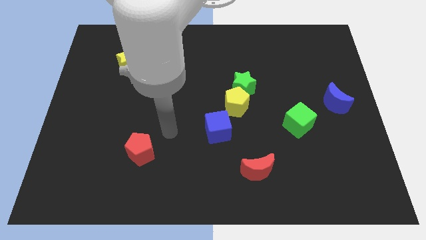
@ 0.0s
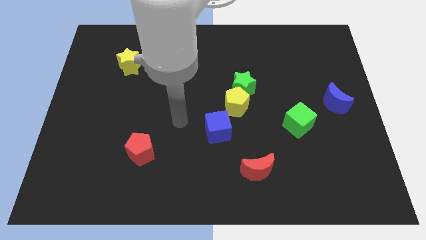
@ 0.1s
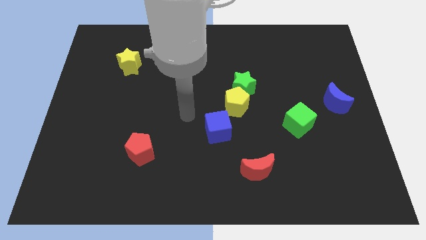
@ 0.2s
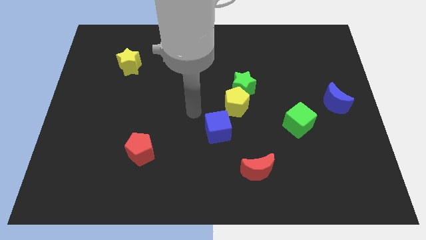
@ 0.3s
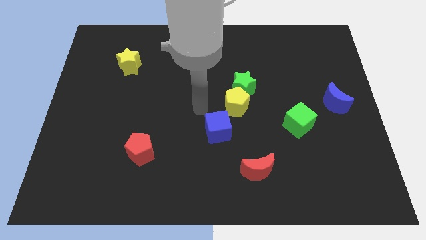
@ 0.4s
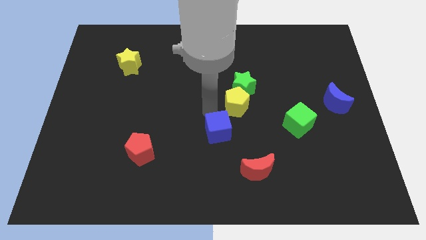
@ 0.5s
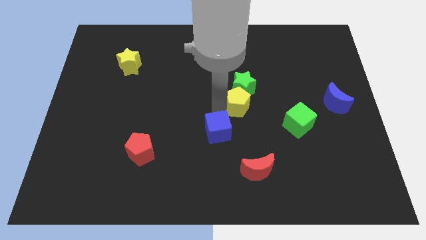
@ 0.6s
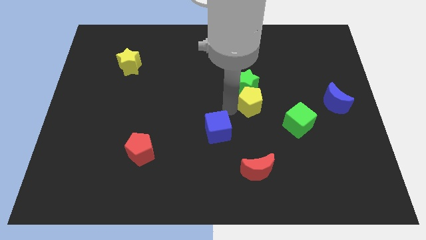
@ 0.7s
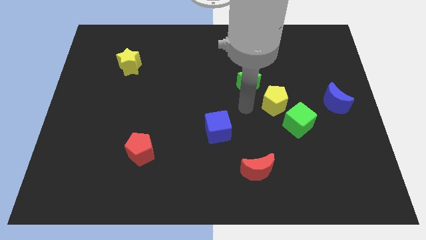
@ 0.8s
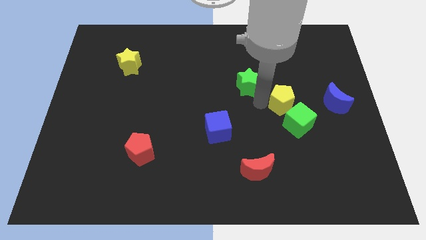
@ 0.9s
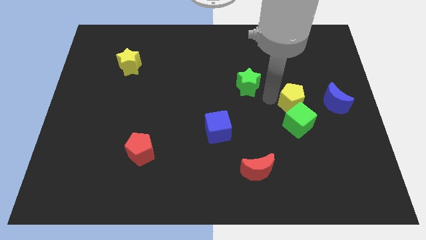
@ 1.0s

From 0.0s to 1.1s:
move the green star away from the yellow pentagon

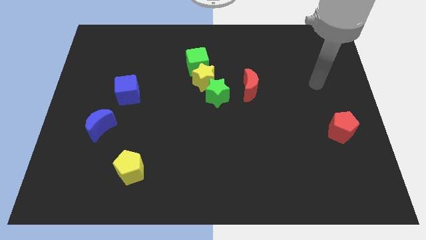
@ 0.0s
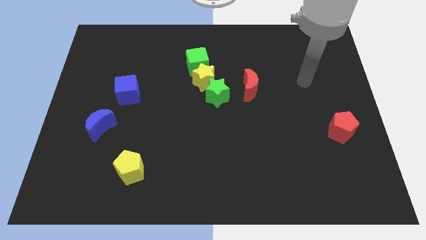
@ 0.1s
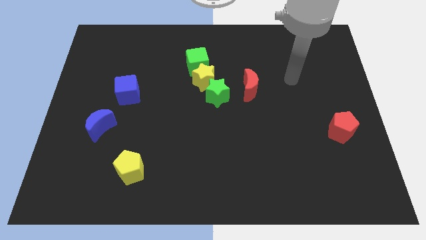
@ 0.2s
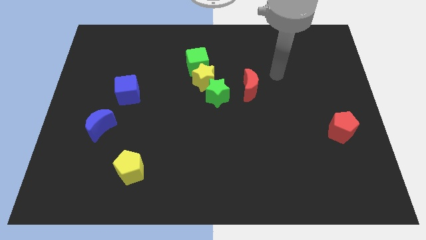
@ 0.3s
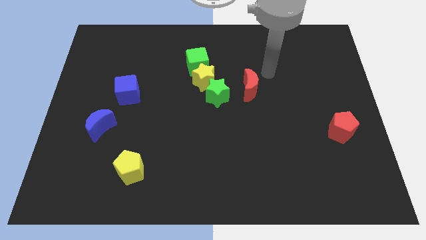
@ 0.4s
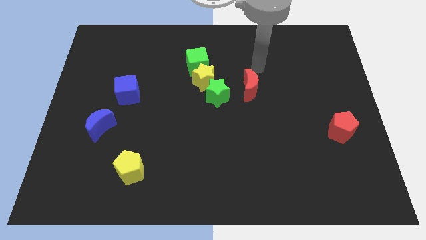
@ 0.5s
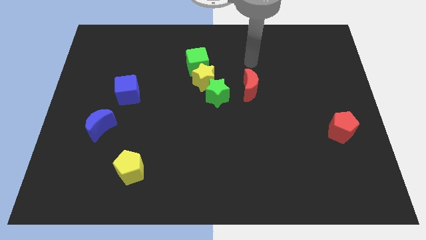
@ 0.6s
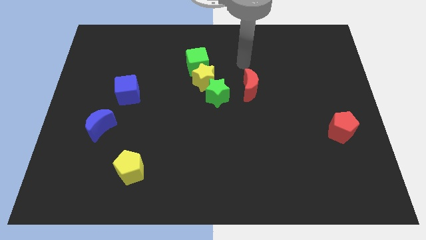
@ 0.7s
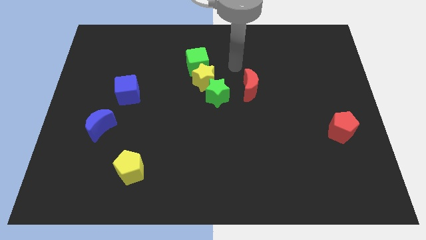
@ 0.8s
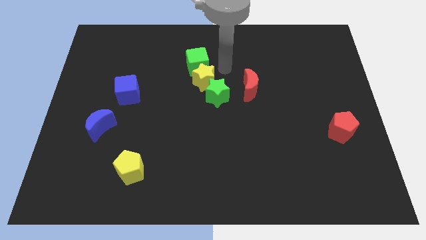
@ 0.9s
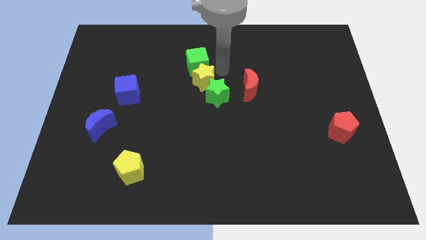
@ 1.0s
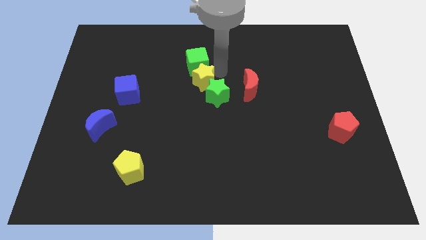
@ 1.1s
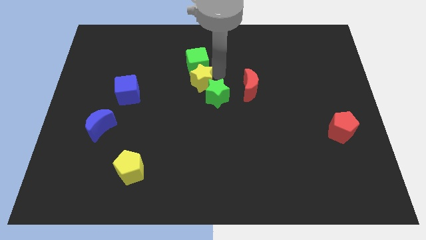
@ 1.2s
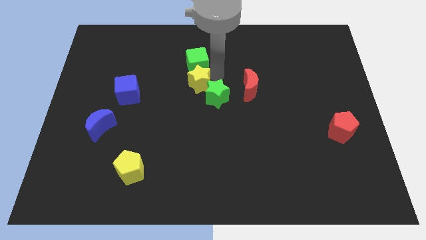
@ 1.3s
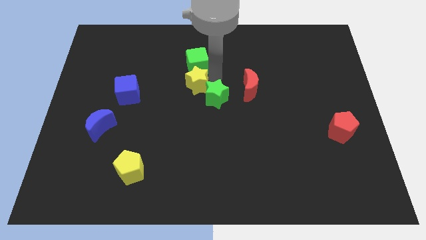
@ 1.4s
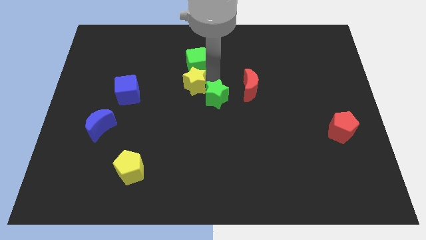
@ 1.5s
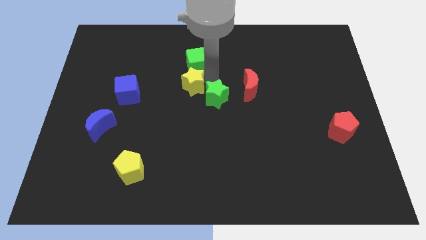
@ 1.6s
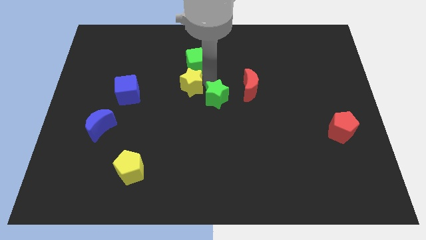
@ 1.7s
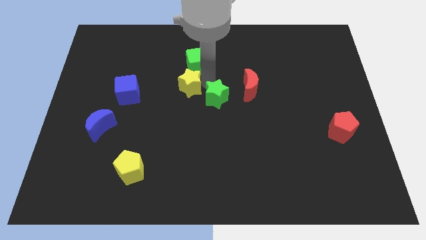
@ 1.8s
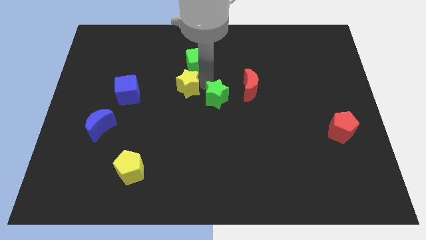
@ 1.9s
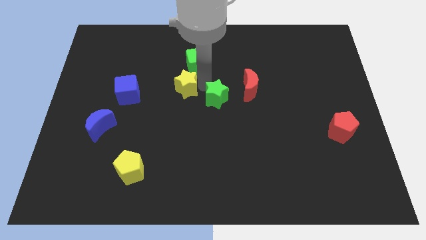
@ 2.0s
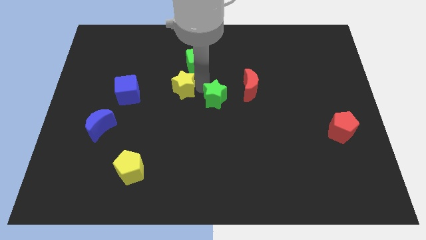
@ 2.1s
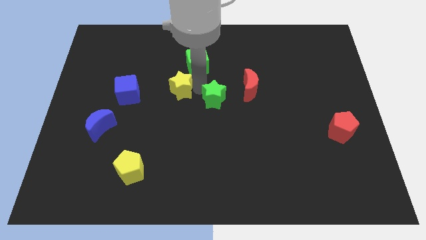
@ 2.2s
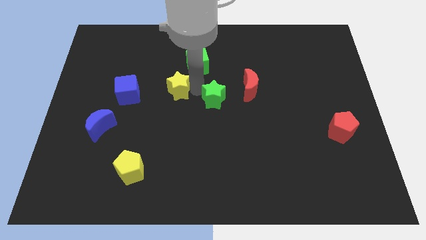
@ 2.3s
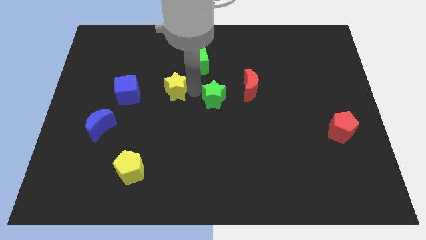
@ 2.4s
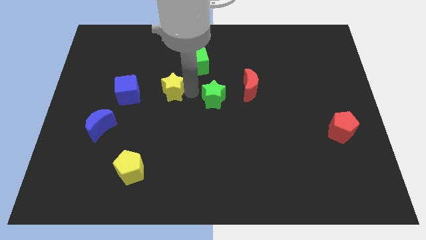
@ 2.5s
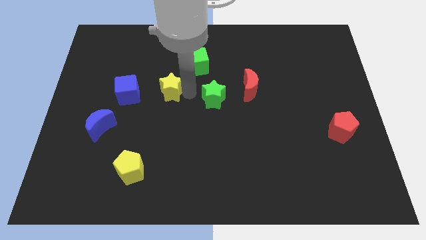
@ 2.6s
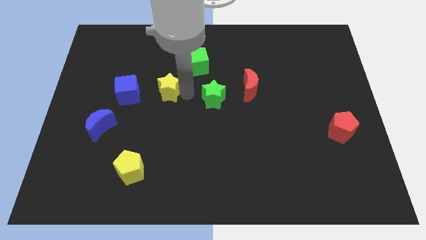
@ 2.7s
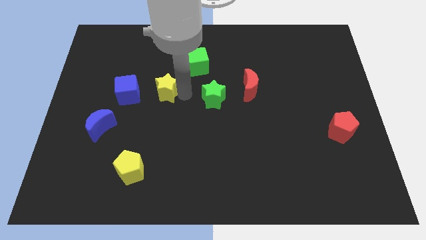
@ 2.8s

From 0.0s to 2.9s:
pull the yellow star apart from the green star and green cube

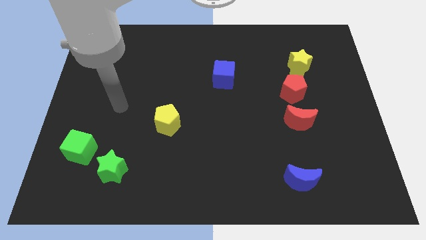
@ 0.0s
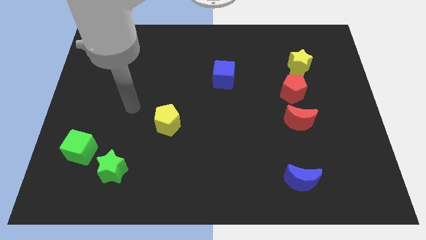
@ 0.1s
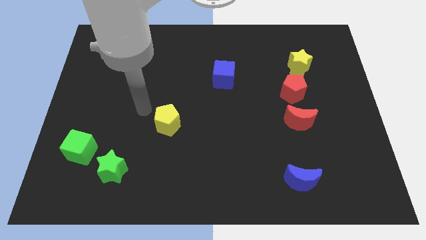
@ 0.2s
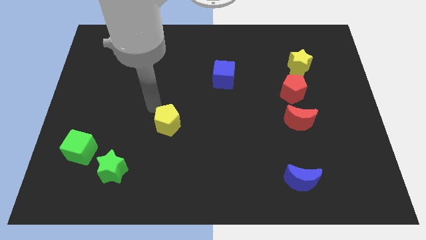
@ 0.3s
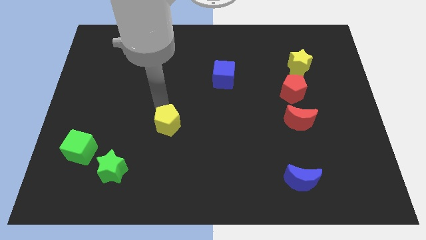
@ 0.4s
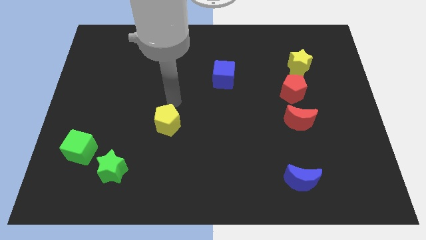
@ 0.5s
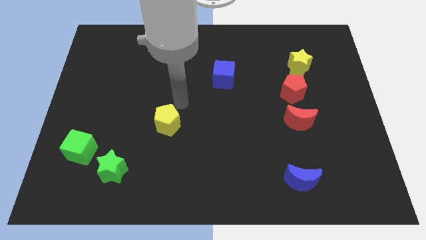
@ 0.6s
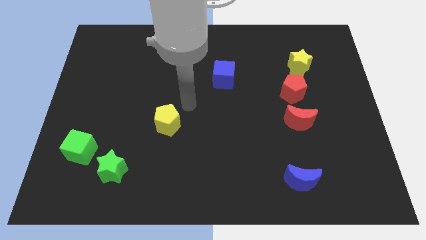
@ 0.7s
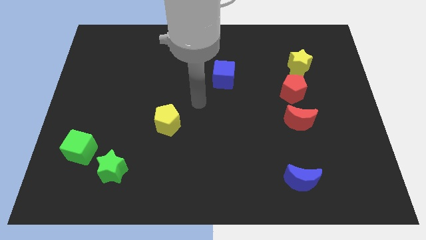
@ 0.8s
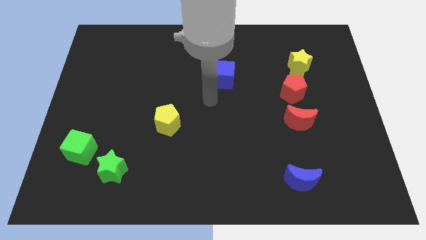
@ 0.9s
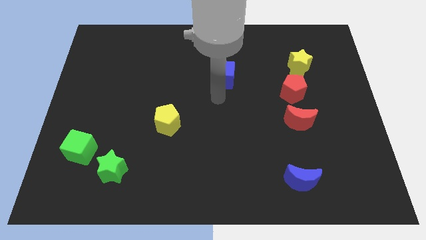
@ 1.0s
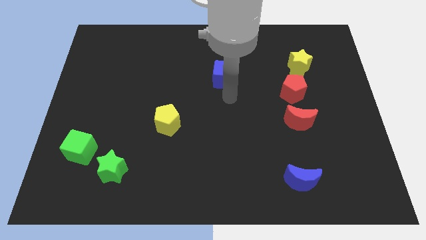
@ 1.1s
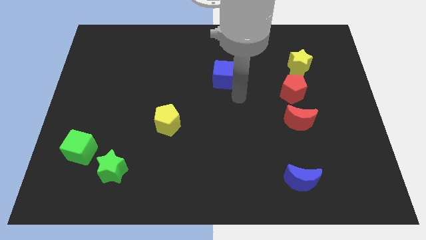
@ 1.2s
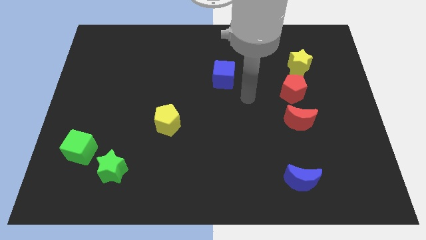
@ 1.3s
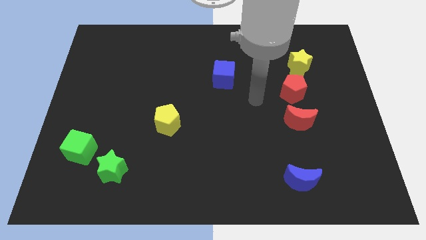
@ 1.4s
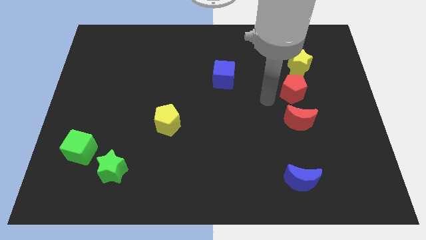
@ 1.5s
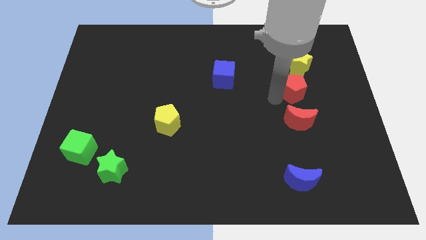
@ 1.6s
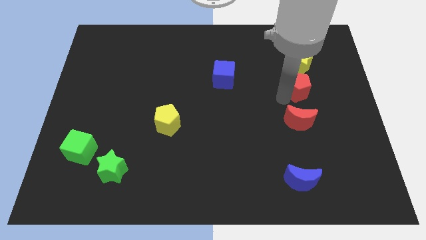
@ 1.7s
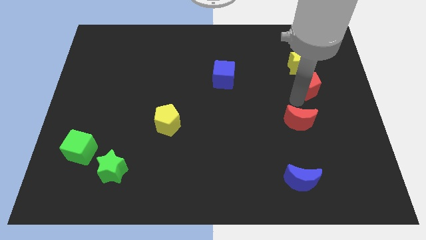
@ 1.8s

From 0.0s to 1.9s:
move the red moon away from the red pentagon

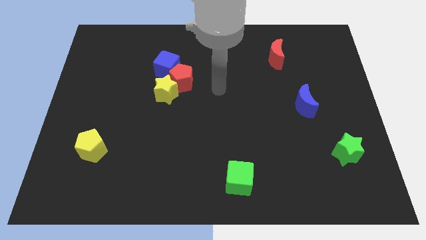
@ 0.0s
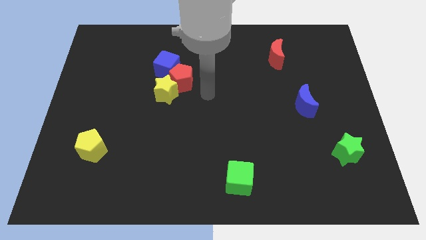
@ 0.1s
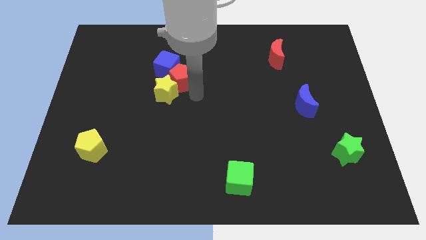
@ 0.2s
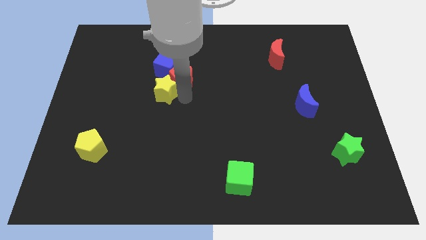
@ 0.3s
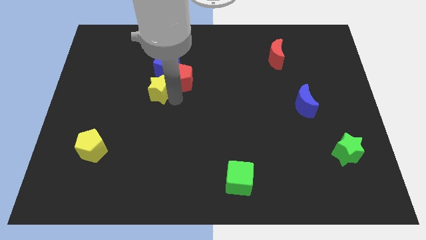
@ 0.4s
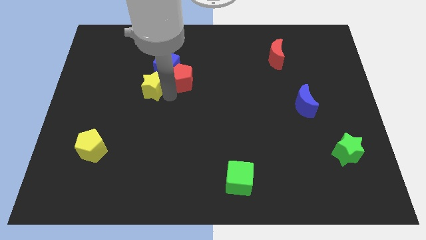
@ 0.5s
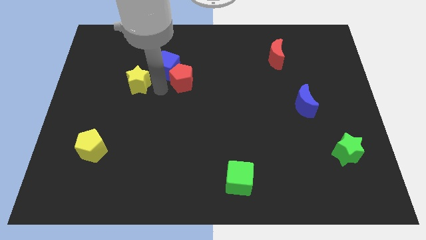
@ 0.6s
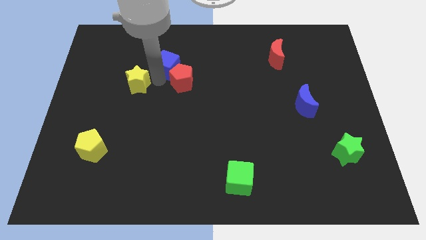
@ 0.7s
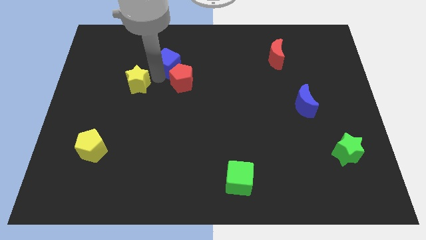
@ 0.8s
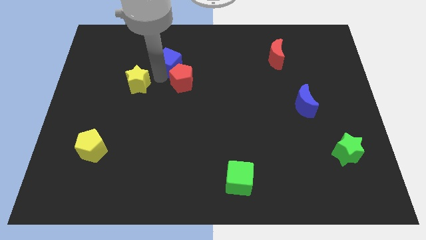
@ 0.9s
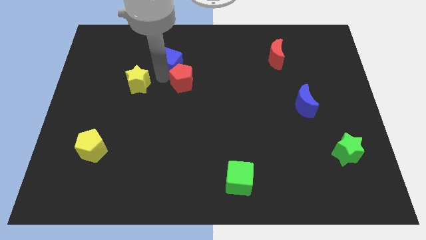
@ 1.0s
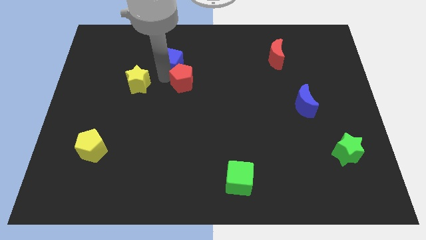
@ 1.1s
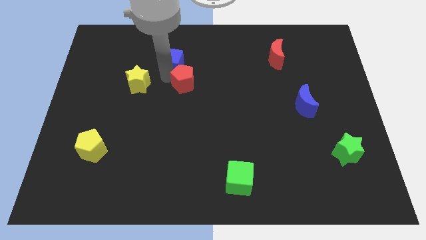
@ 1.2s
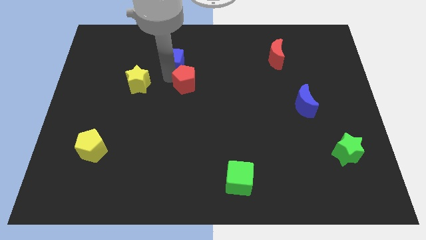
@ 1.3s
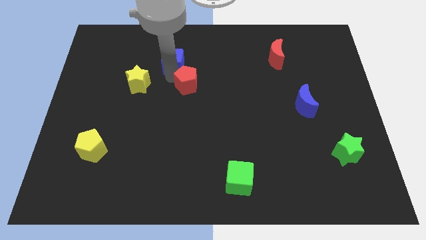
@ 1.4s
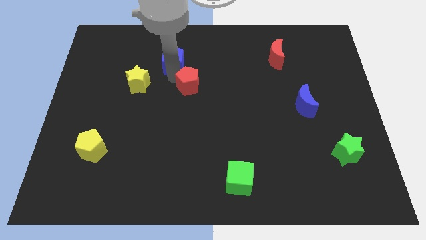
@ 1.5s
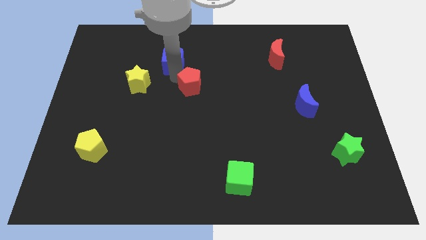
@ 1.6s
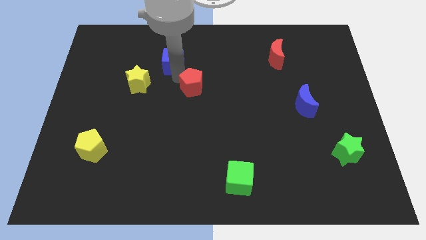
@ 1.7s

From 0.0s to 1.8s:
separate the red pentagon from the yellow star and blue cube

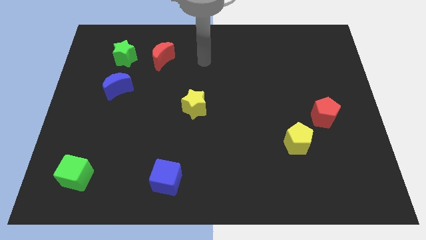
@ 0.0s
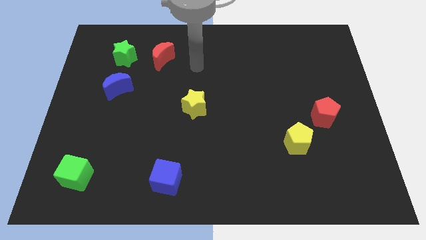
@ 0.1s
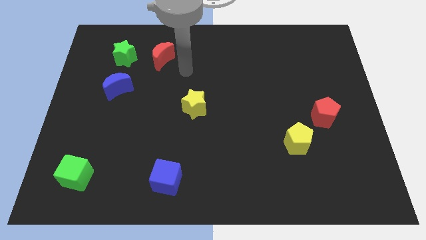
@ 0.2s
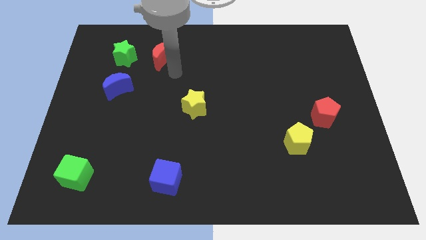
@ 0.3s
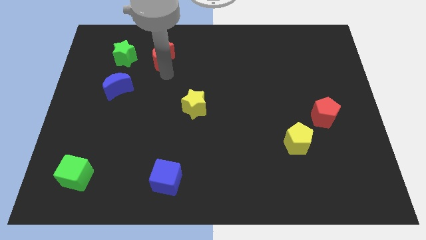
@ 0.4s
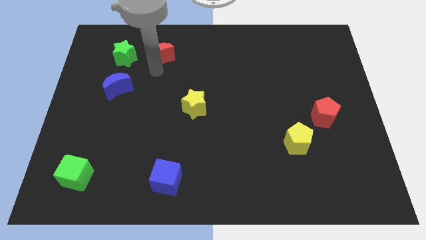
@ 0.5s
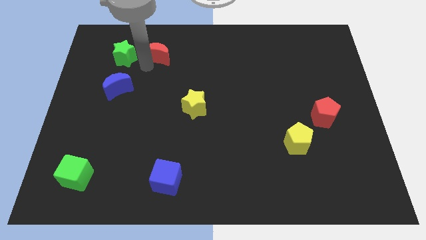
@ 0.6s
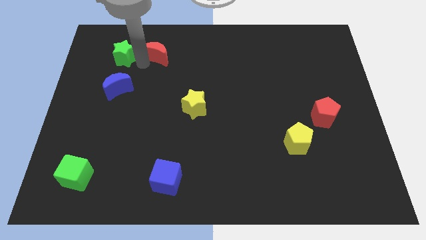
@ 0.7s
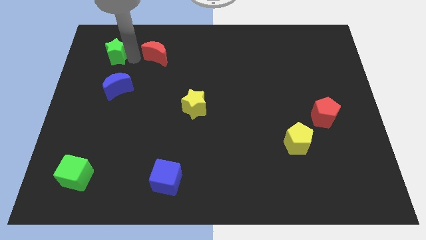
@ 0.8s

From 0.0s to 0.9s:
separate the red moon from the green star

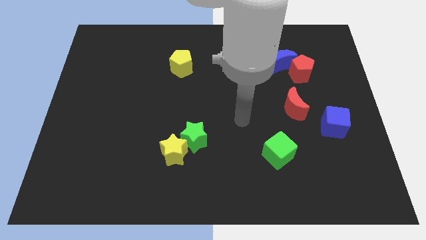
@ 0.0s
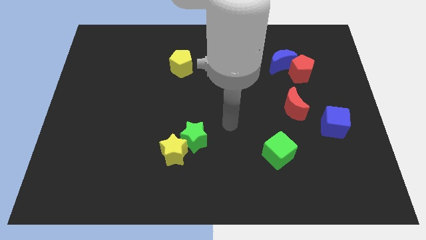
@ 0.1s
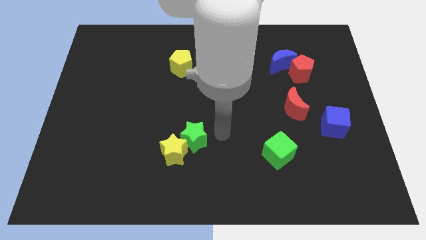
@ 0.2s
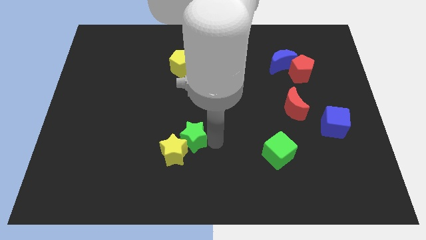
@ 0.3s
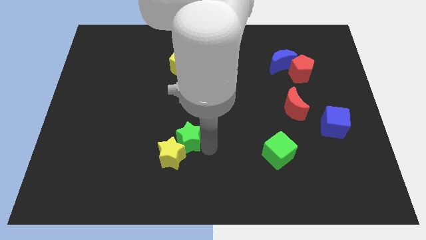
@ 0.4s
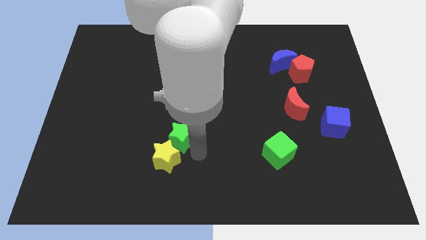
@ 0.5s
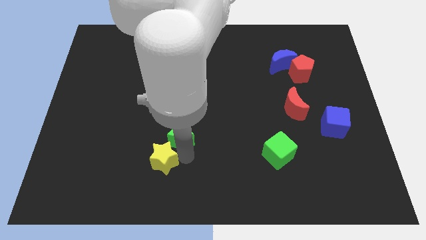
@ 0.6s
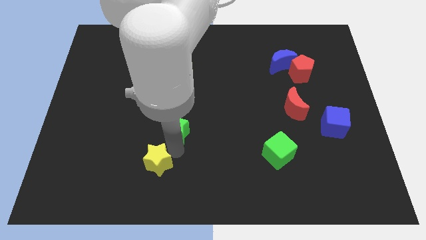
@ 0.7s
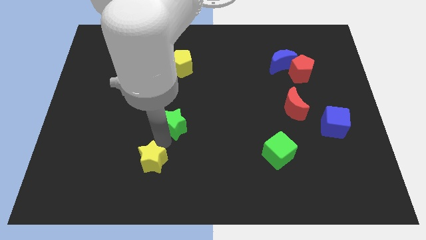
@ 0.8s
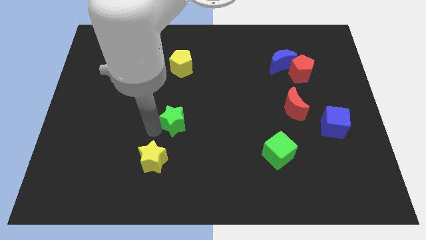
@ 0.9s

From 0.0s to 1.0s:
move the green star away from the yellow star
